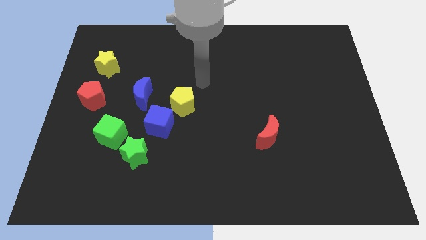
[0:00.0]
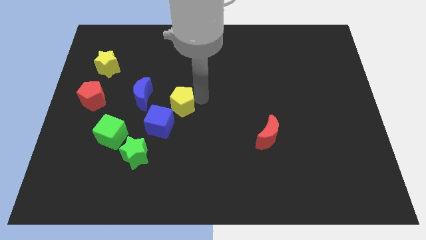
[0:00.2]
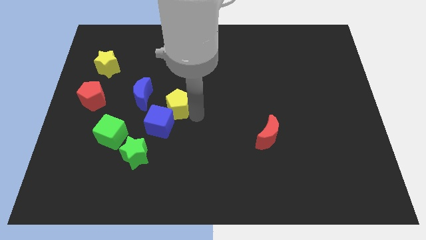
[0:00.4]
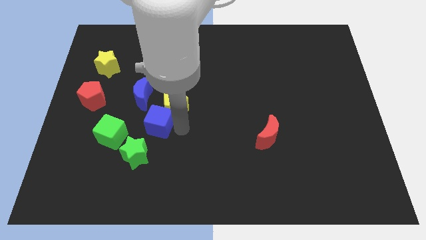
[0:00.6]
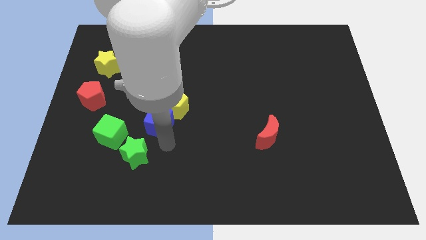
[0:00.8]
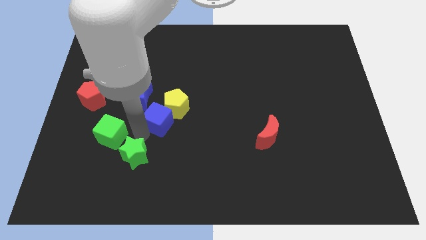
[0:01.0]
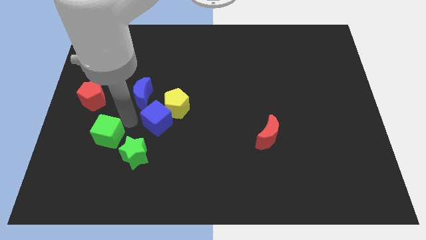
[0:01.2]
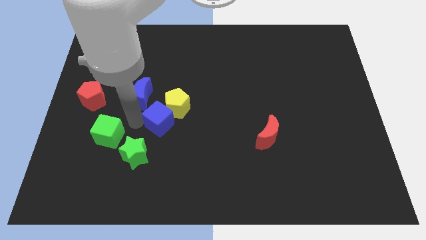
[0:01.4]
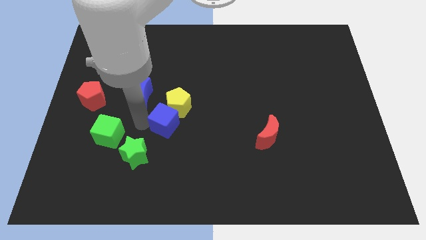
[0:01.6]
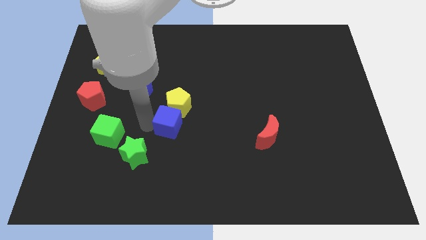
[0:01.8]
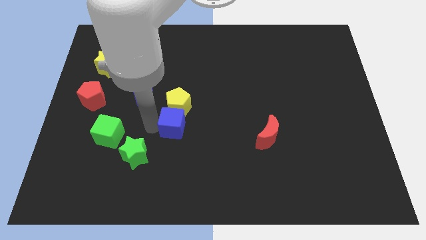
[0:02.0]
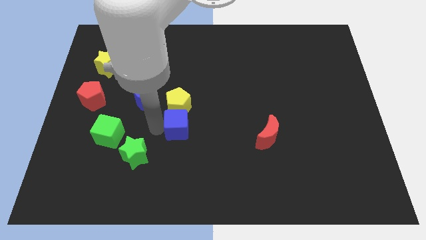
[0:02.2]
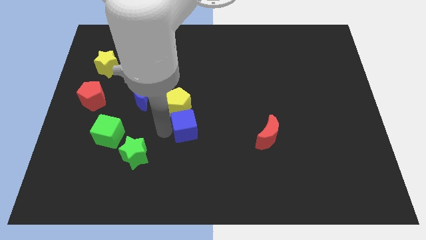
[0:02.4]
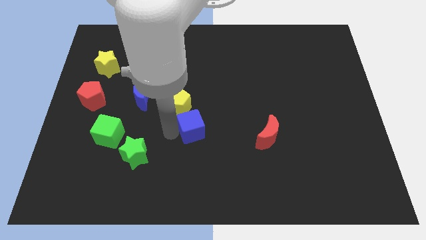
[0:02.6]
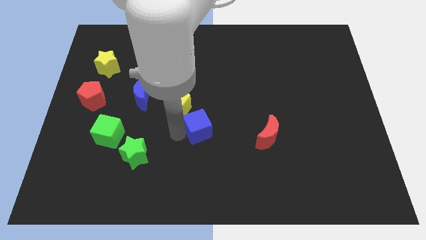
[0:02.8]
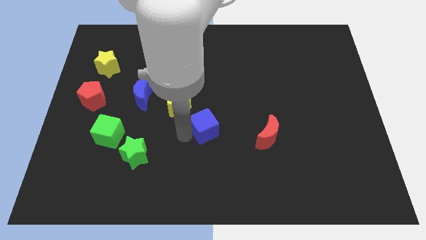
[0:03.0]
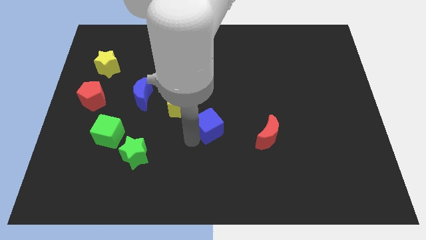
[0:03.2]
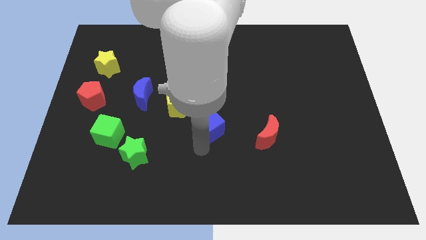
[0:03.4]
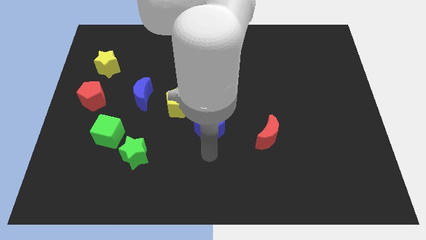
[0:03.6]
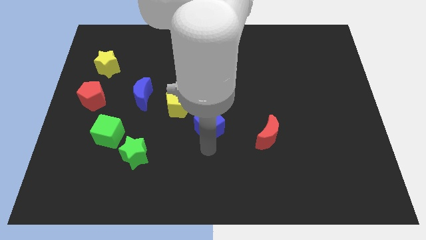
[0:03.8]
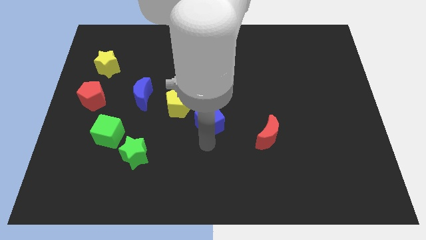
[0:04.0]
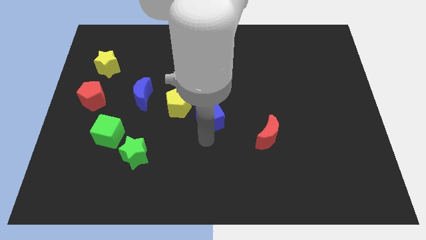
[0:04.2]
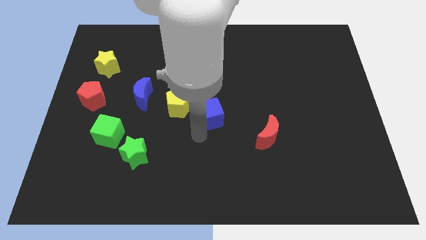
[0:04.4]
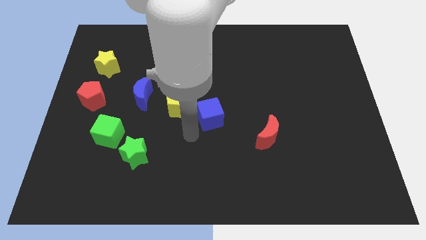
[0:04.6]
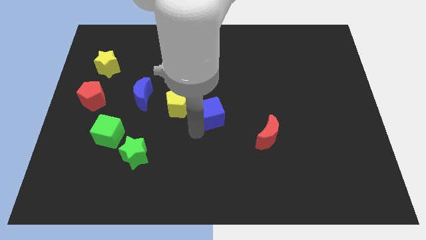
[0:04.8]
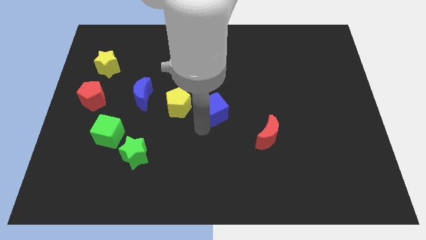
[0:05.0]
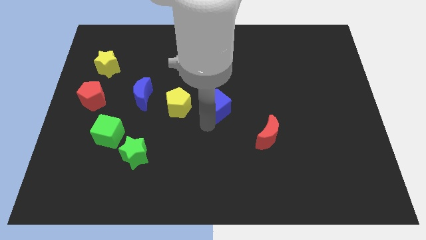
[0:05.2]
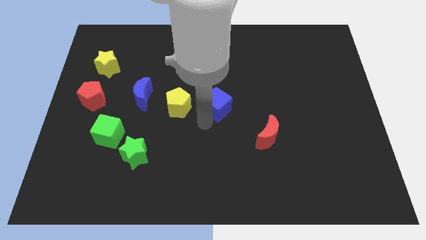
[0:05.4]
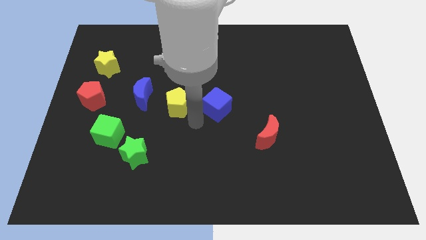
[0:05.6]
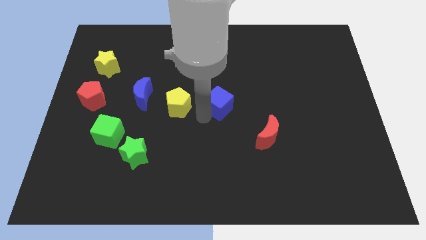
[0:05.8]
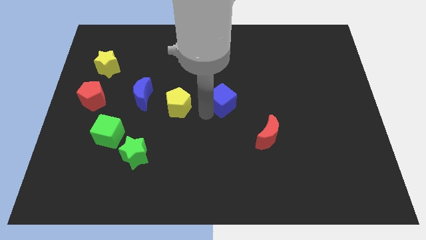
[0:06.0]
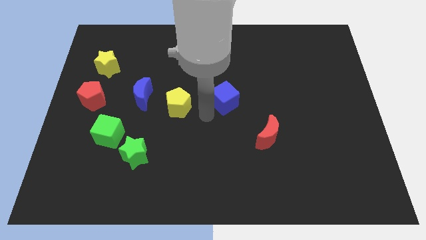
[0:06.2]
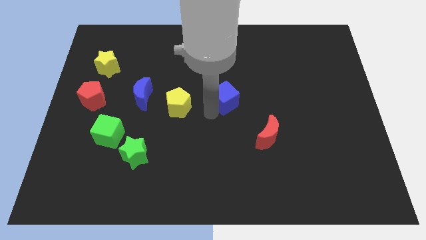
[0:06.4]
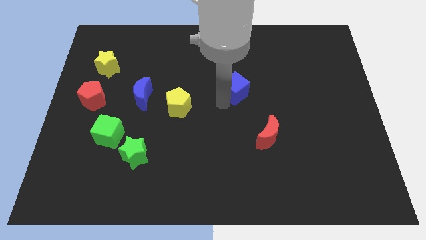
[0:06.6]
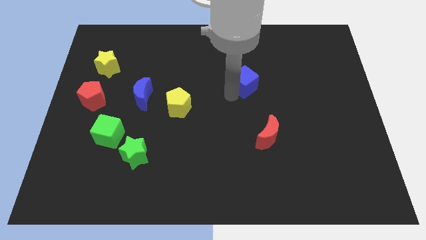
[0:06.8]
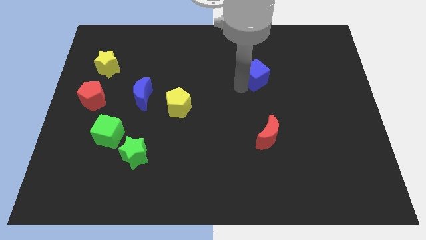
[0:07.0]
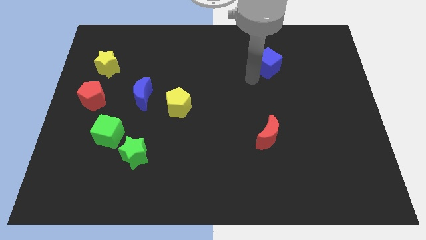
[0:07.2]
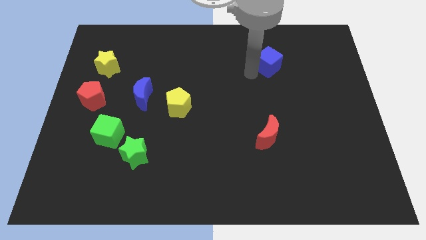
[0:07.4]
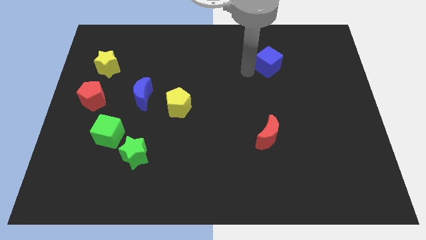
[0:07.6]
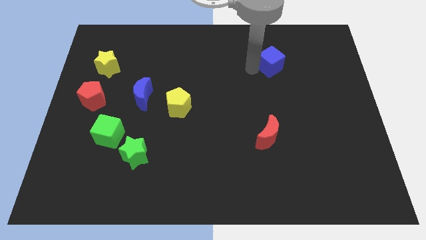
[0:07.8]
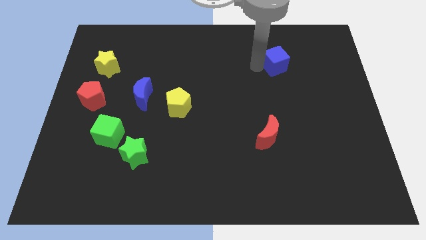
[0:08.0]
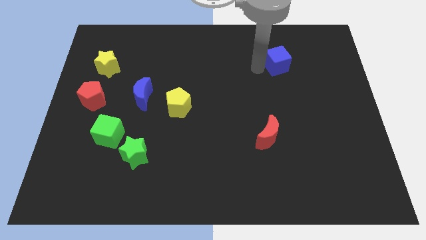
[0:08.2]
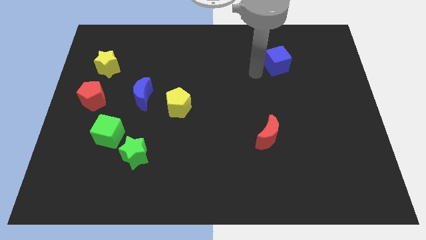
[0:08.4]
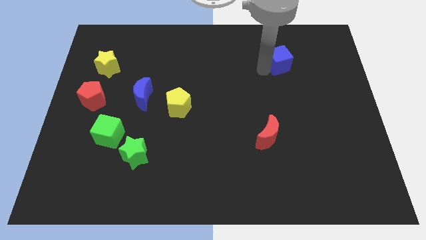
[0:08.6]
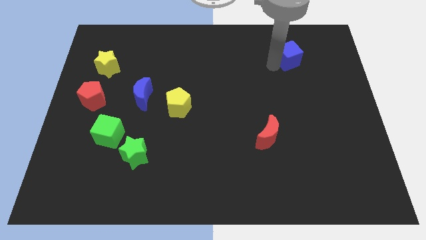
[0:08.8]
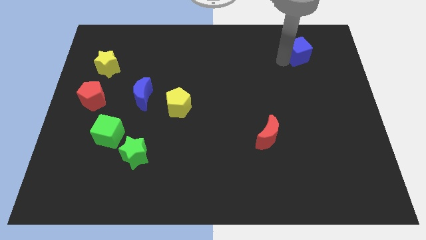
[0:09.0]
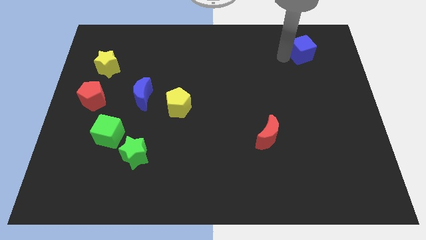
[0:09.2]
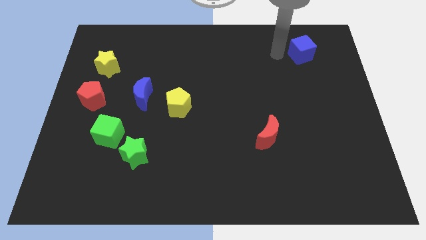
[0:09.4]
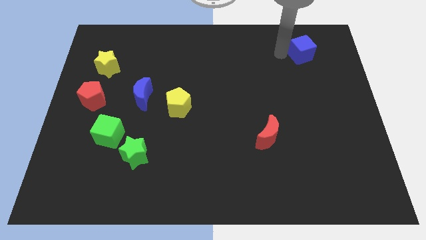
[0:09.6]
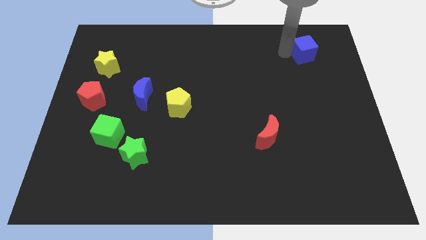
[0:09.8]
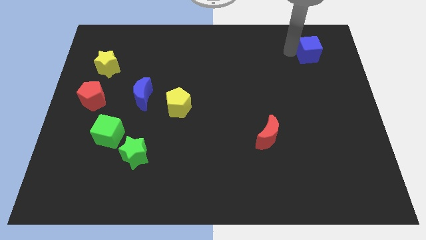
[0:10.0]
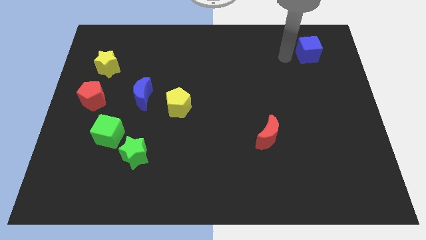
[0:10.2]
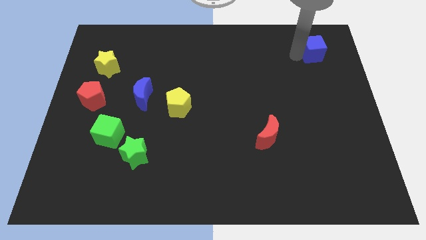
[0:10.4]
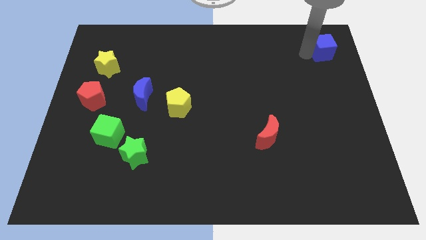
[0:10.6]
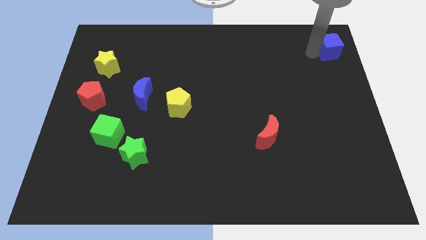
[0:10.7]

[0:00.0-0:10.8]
slide the blue cube to the top right corner

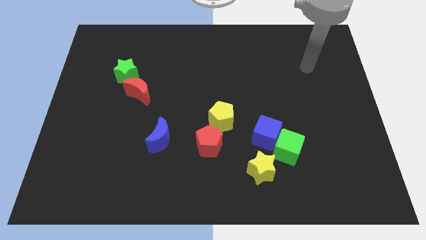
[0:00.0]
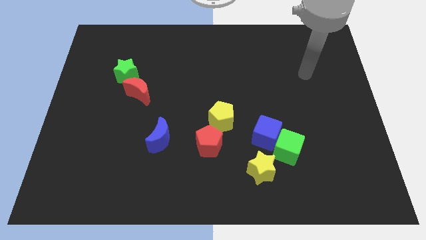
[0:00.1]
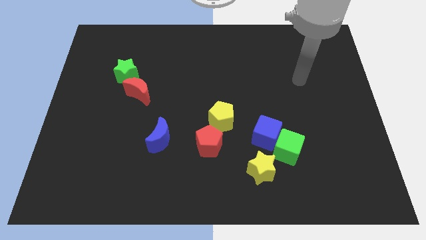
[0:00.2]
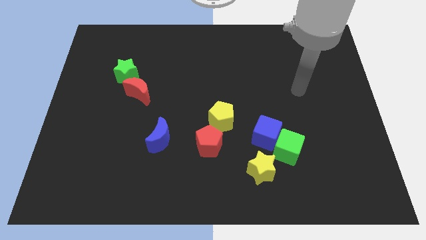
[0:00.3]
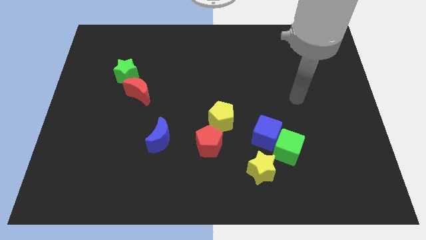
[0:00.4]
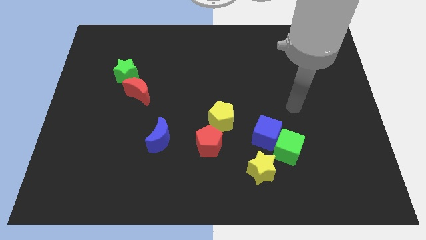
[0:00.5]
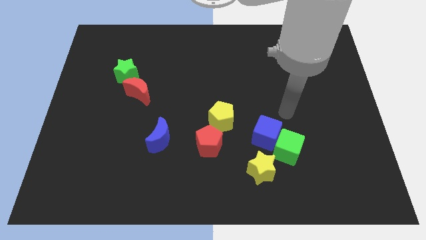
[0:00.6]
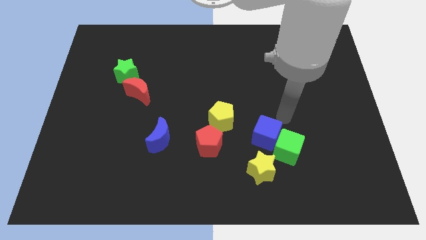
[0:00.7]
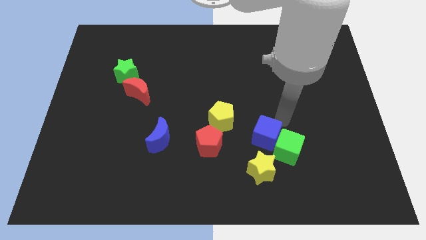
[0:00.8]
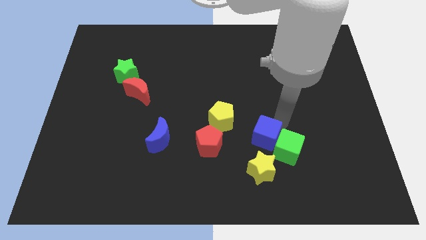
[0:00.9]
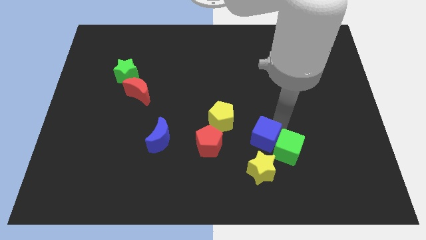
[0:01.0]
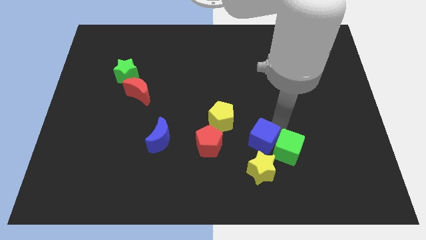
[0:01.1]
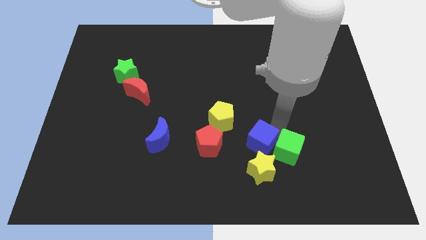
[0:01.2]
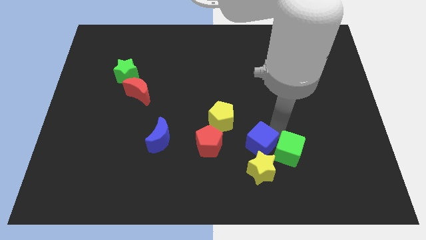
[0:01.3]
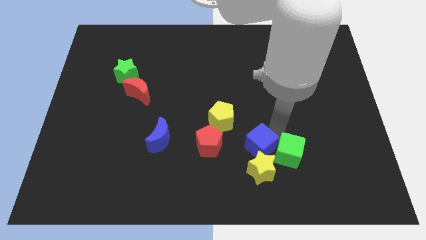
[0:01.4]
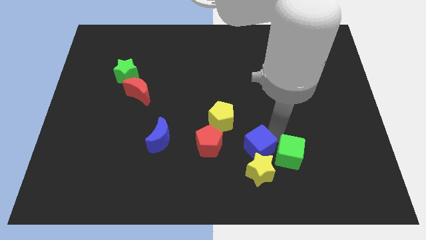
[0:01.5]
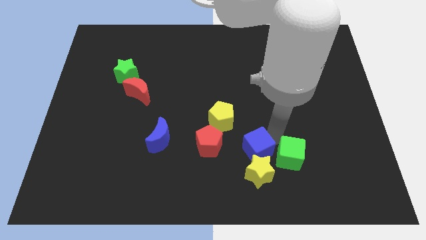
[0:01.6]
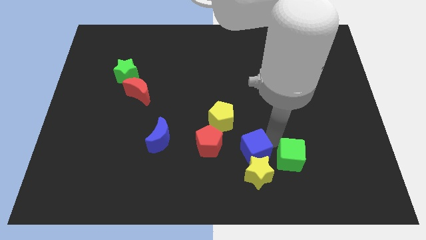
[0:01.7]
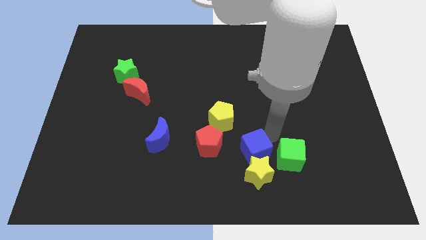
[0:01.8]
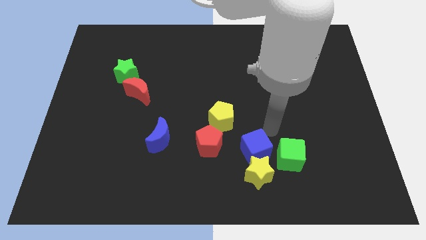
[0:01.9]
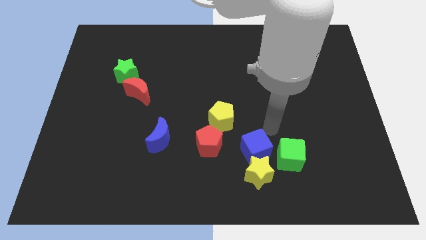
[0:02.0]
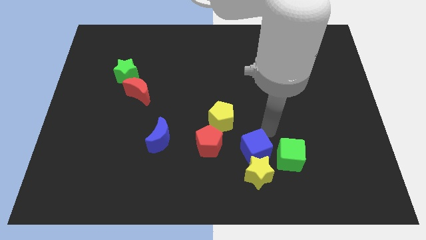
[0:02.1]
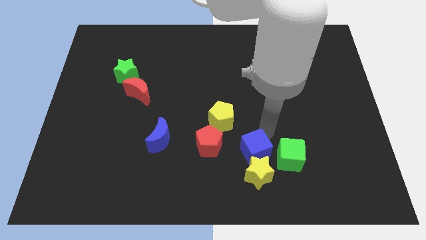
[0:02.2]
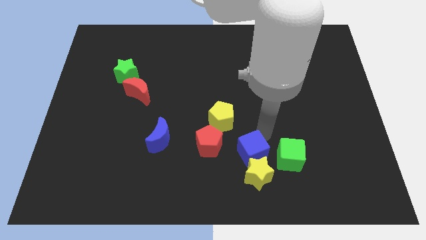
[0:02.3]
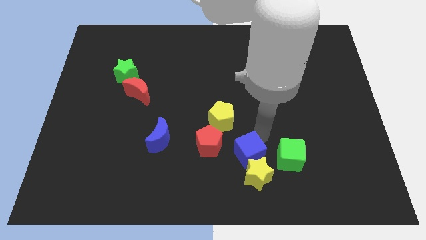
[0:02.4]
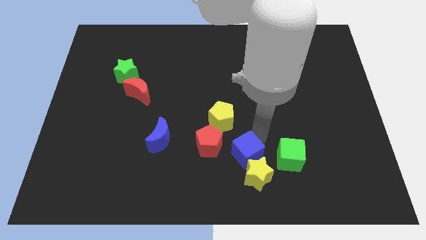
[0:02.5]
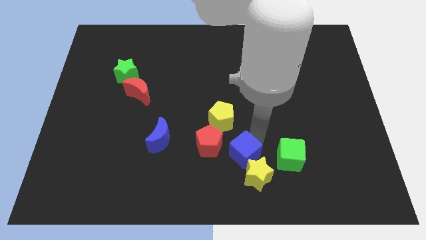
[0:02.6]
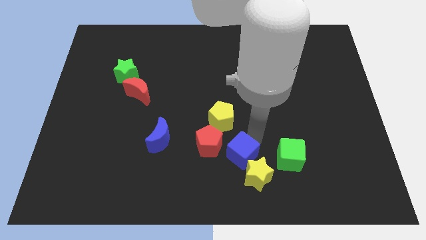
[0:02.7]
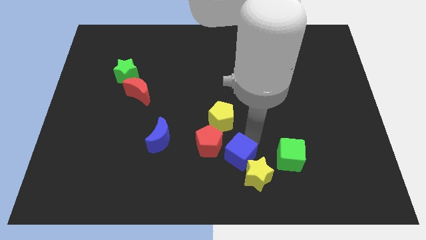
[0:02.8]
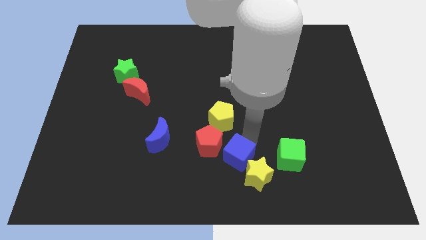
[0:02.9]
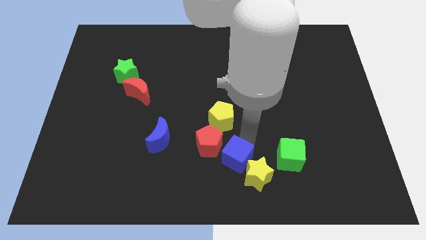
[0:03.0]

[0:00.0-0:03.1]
put the blue cube to the bottom side
